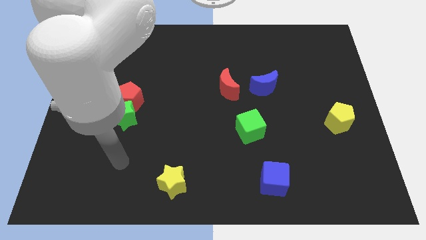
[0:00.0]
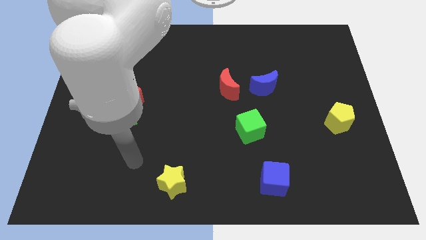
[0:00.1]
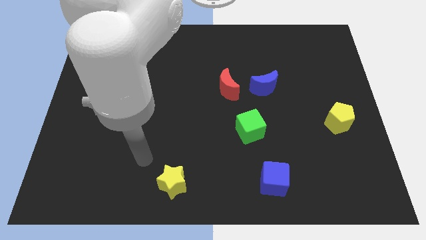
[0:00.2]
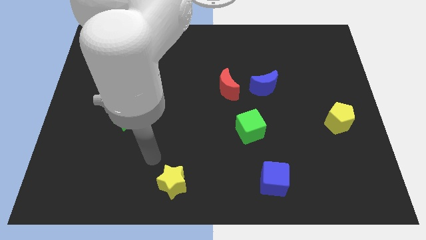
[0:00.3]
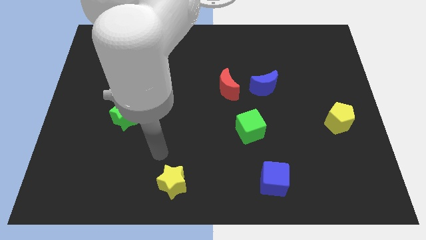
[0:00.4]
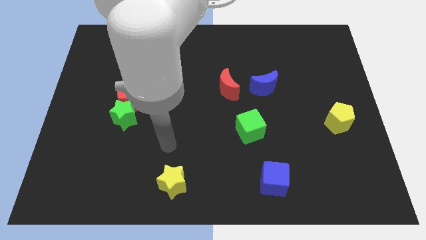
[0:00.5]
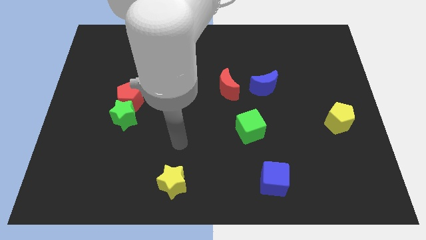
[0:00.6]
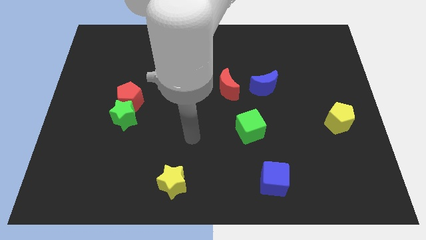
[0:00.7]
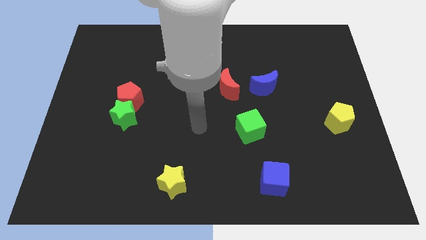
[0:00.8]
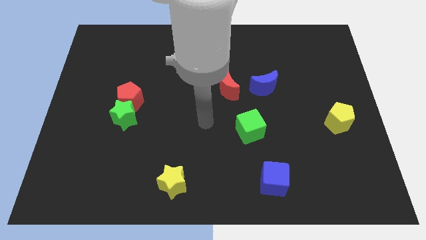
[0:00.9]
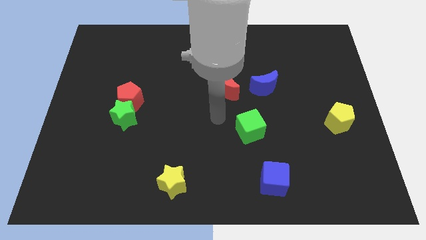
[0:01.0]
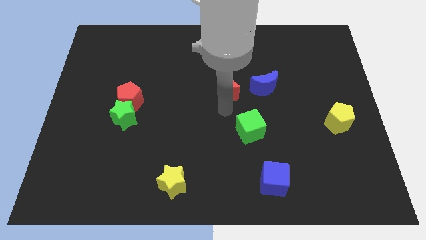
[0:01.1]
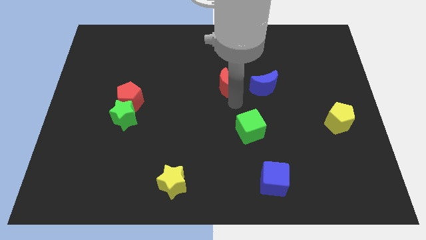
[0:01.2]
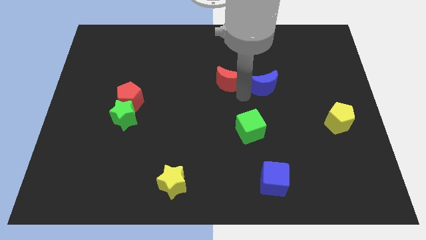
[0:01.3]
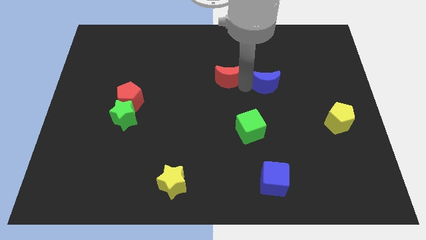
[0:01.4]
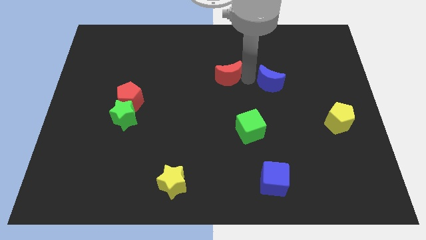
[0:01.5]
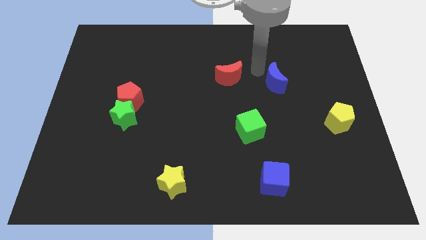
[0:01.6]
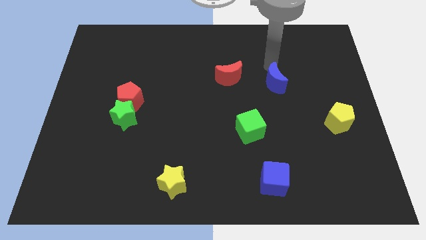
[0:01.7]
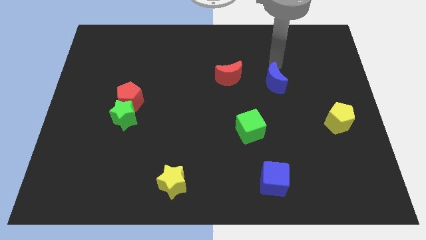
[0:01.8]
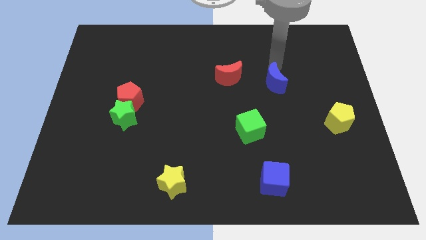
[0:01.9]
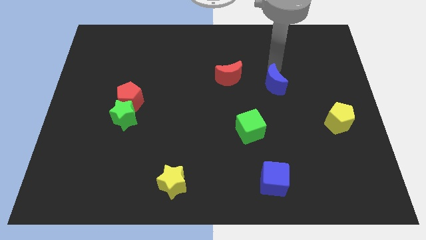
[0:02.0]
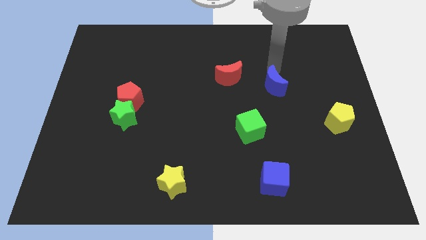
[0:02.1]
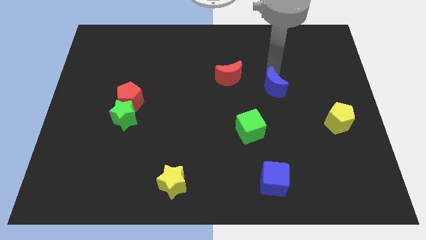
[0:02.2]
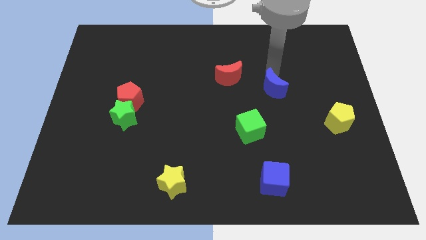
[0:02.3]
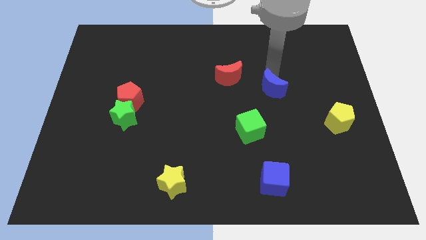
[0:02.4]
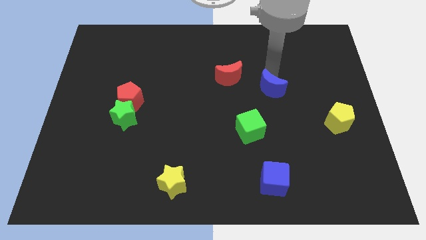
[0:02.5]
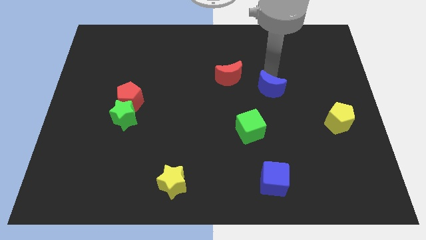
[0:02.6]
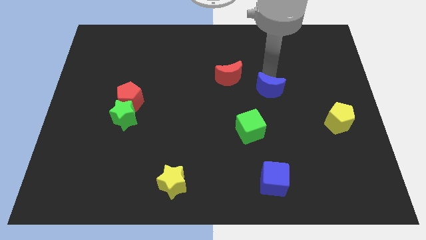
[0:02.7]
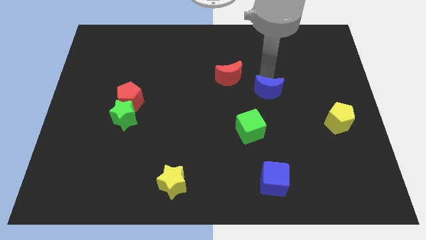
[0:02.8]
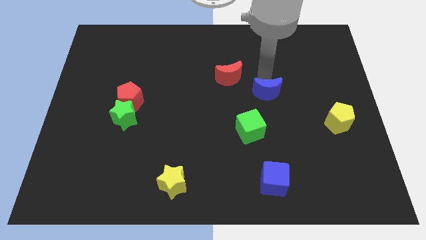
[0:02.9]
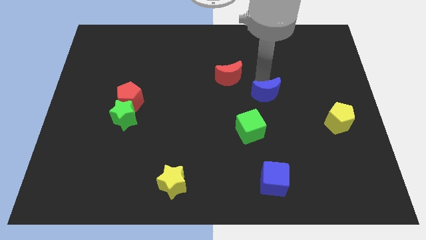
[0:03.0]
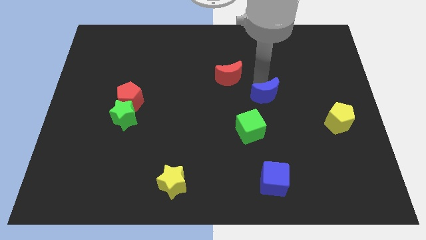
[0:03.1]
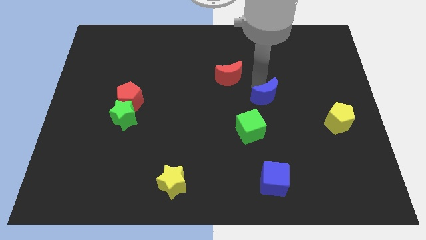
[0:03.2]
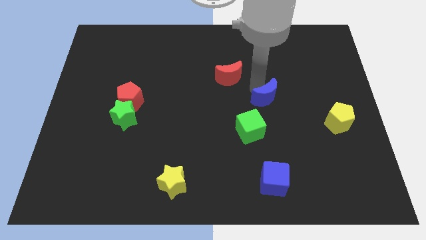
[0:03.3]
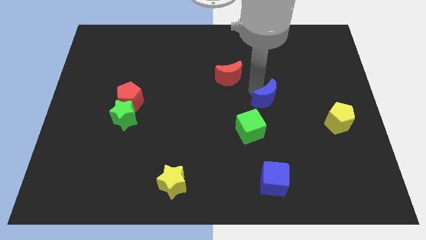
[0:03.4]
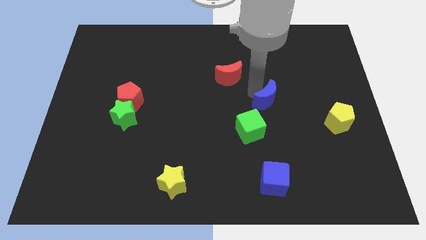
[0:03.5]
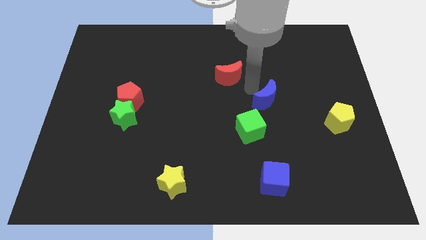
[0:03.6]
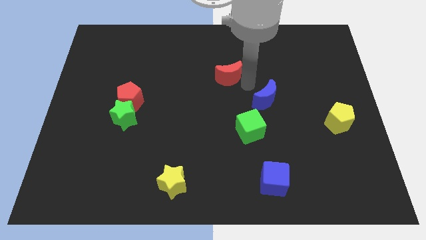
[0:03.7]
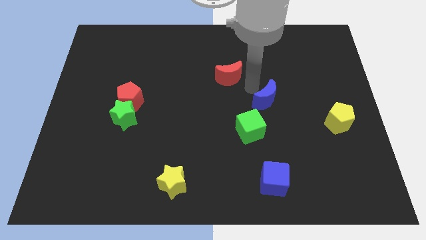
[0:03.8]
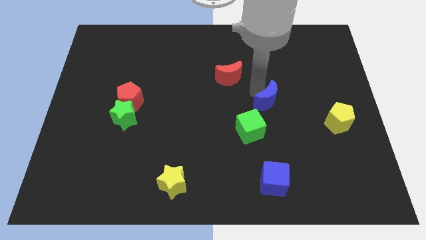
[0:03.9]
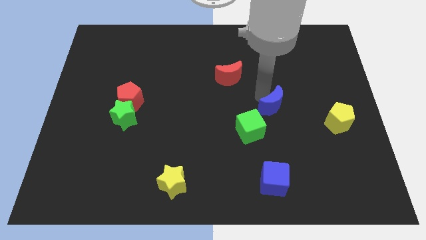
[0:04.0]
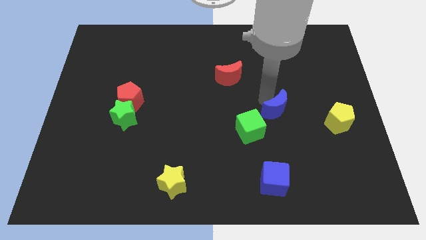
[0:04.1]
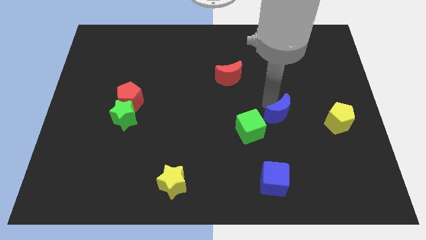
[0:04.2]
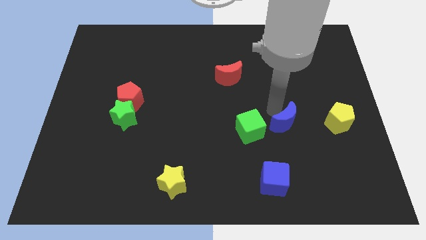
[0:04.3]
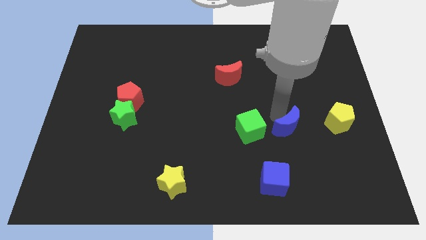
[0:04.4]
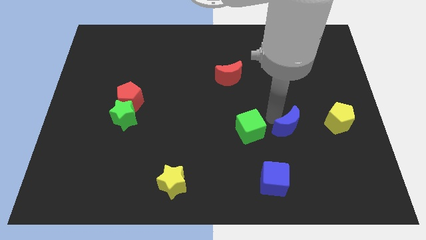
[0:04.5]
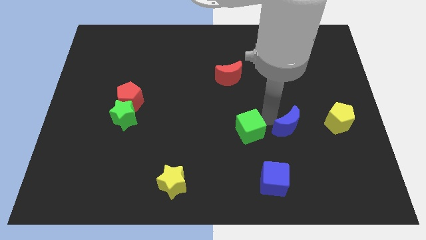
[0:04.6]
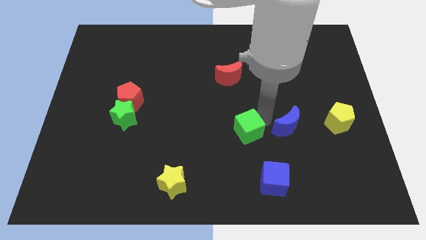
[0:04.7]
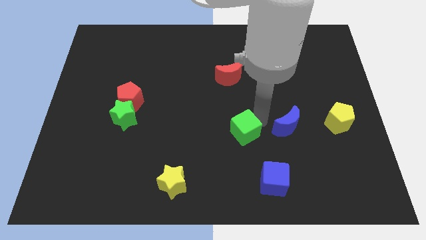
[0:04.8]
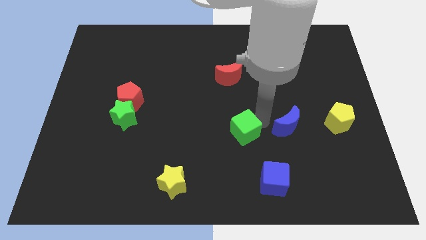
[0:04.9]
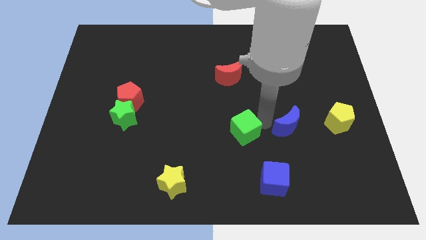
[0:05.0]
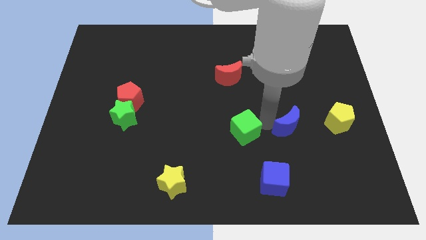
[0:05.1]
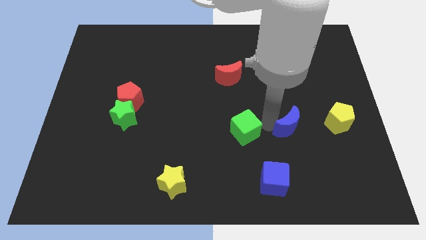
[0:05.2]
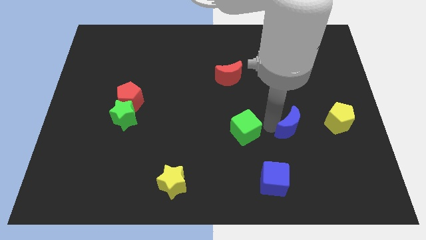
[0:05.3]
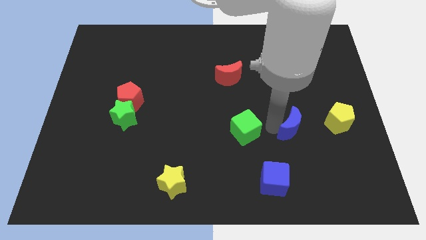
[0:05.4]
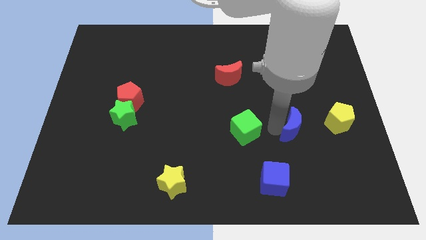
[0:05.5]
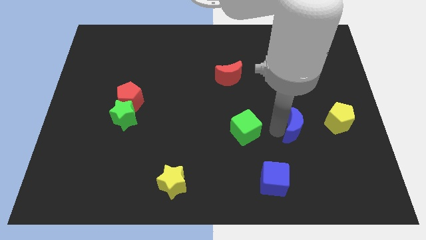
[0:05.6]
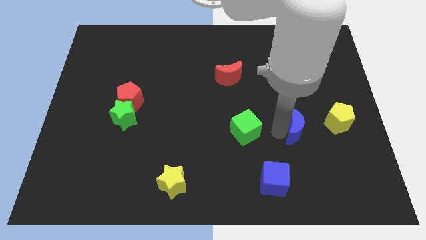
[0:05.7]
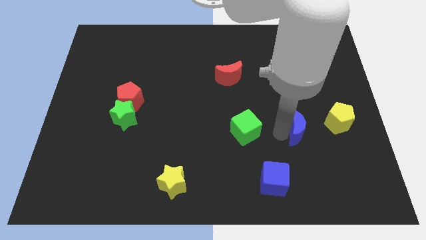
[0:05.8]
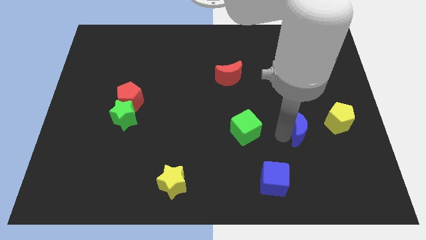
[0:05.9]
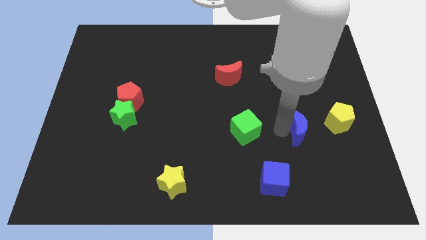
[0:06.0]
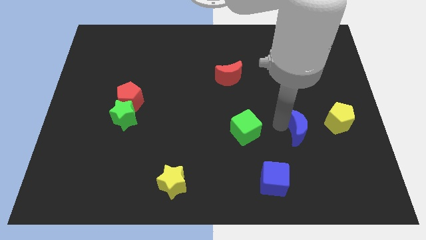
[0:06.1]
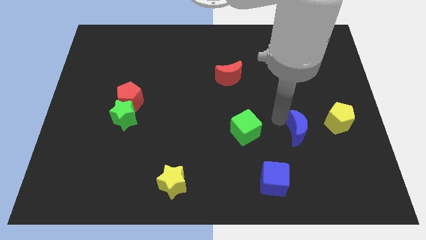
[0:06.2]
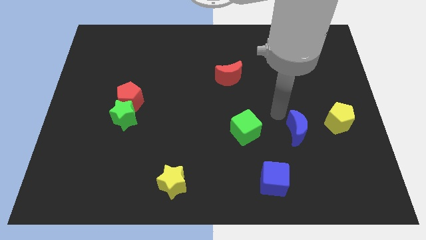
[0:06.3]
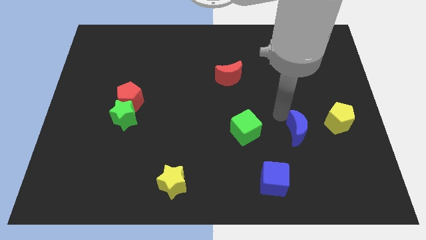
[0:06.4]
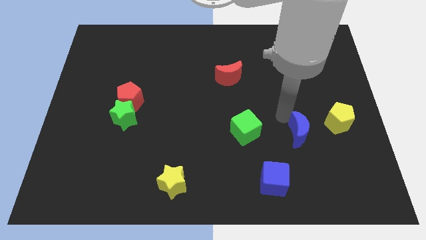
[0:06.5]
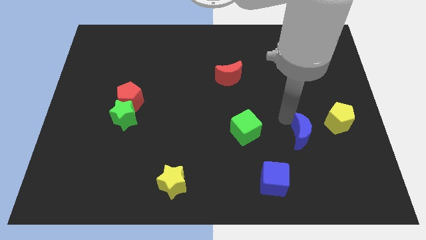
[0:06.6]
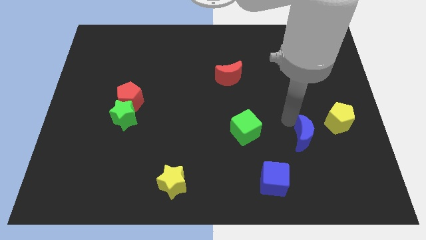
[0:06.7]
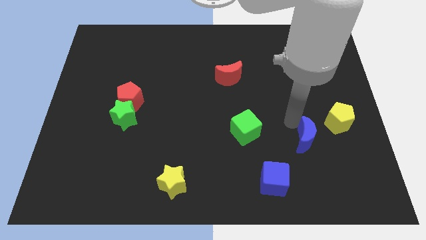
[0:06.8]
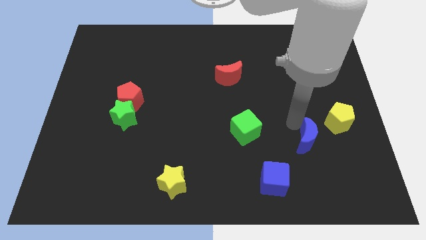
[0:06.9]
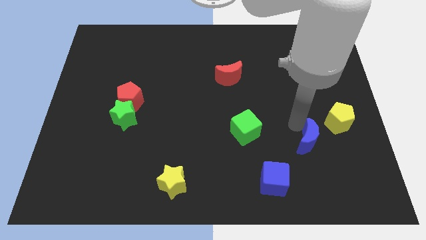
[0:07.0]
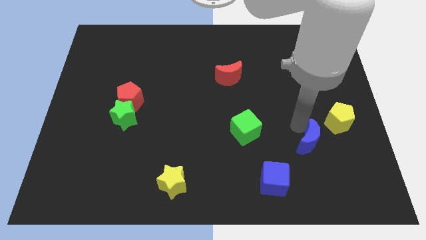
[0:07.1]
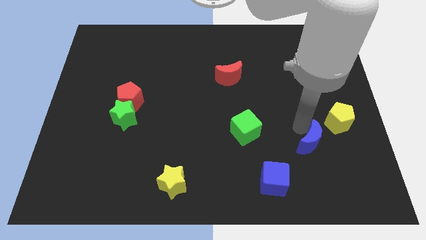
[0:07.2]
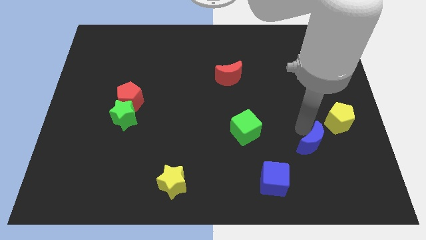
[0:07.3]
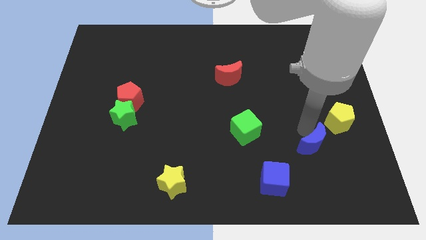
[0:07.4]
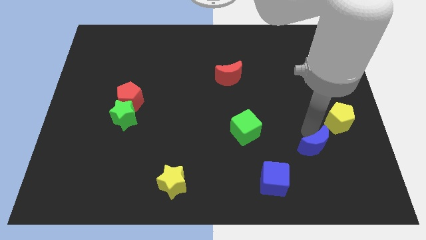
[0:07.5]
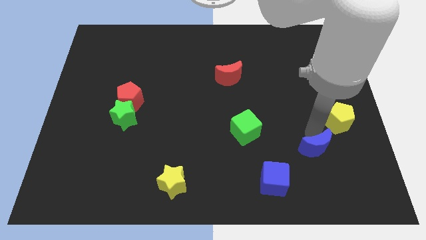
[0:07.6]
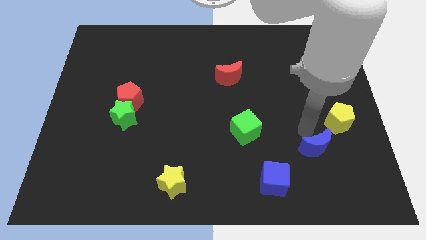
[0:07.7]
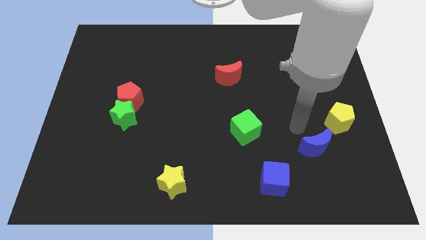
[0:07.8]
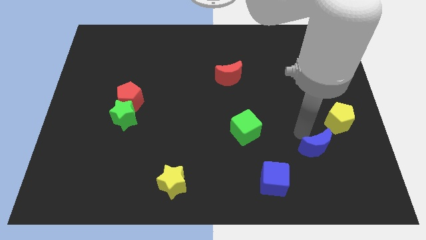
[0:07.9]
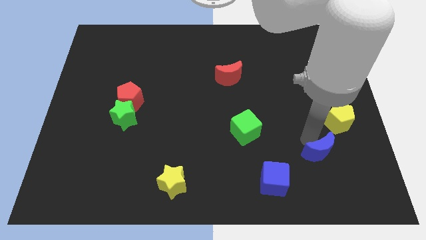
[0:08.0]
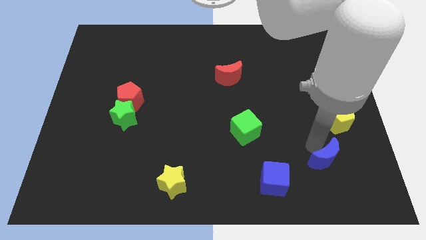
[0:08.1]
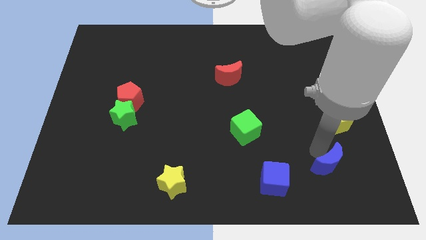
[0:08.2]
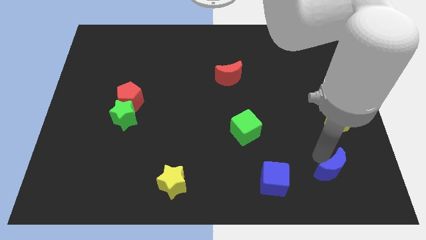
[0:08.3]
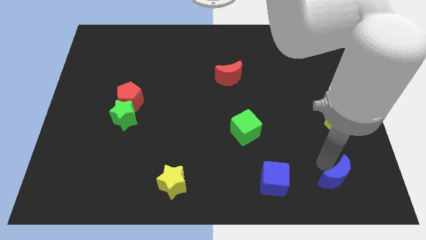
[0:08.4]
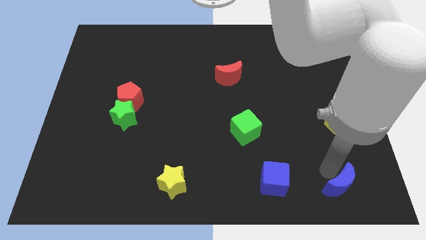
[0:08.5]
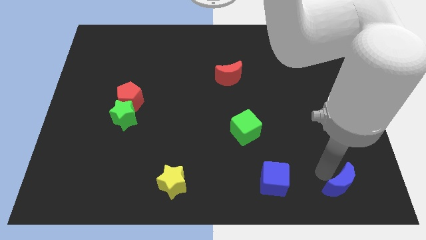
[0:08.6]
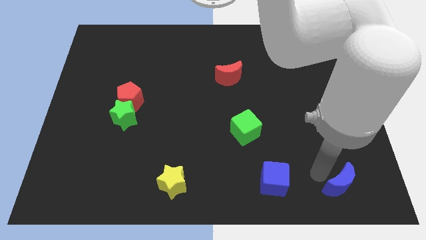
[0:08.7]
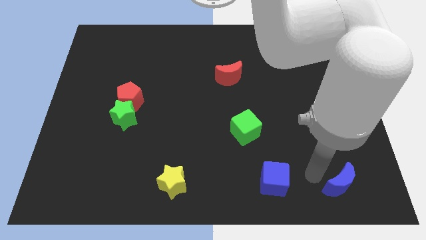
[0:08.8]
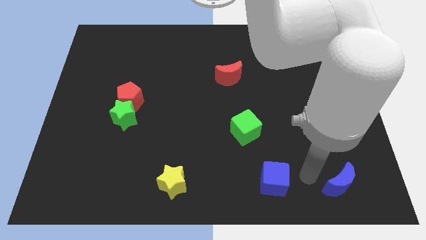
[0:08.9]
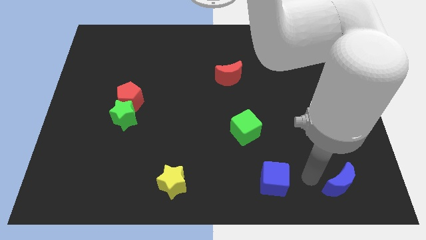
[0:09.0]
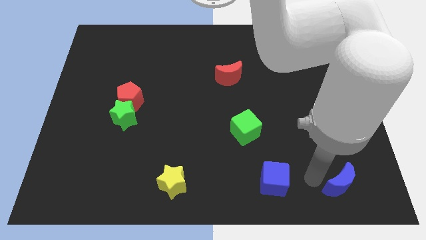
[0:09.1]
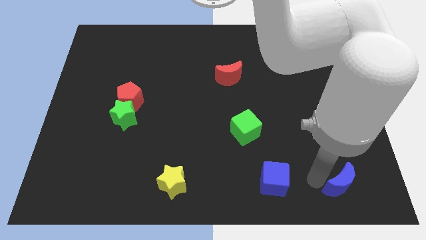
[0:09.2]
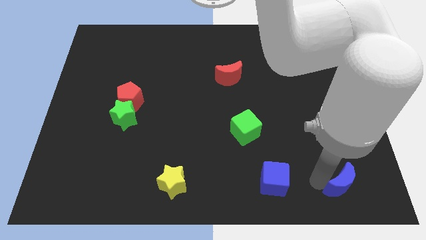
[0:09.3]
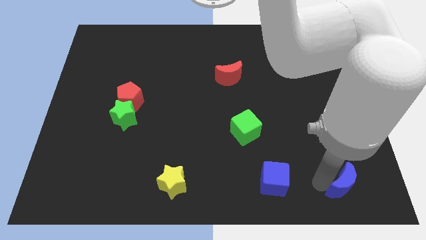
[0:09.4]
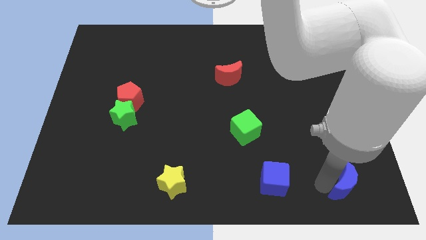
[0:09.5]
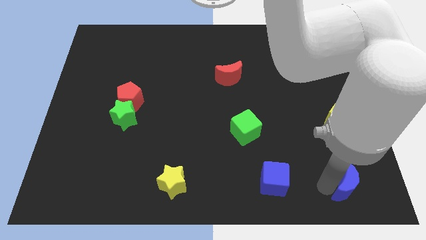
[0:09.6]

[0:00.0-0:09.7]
move the blue moon to the bottom right of the board
